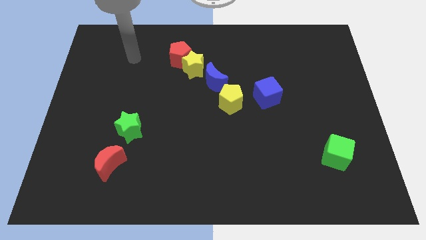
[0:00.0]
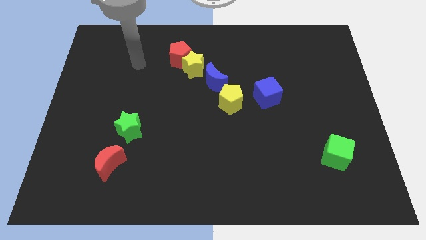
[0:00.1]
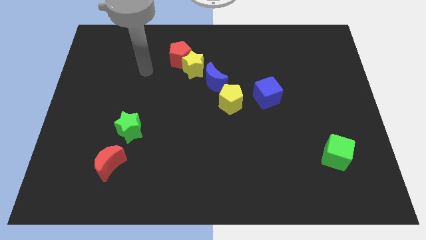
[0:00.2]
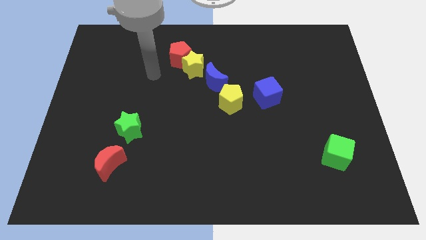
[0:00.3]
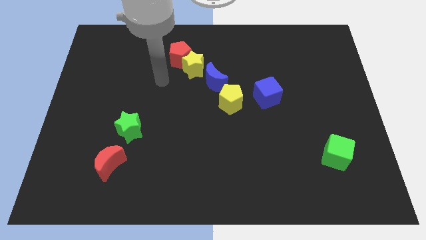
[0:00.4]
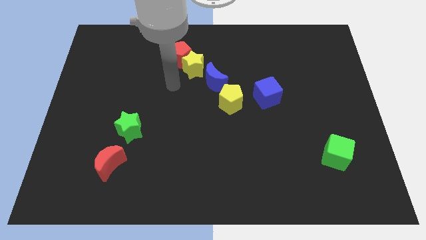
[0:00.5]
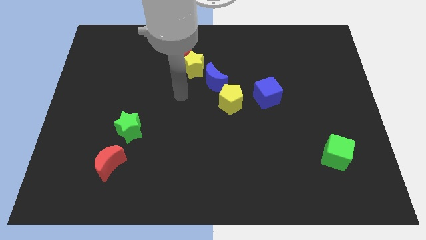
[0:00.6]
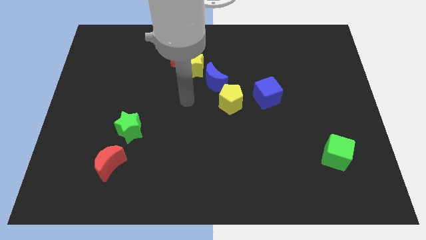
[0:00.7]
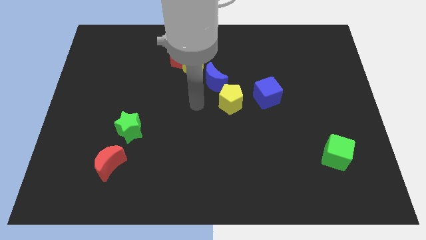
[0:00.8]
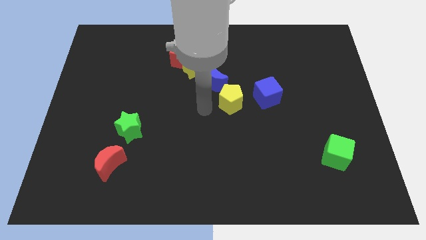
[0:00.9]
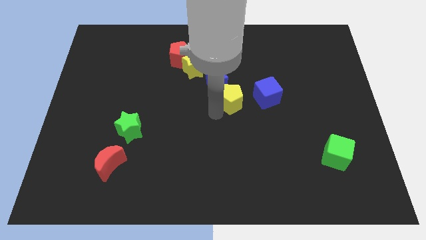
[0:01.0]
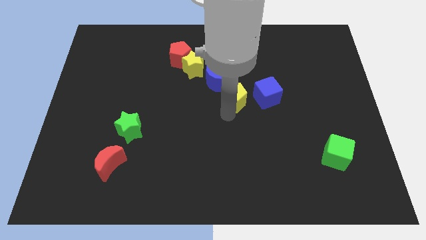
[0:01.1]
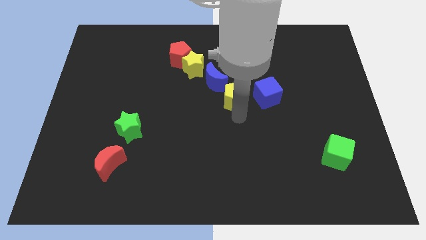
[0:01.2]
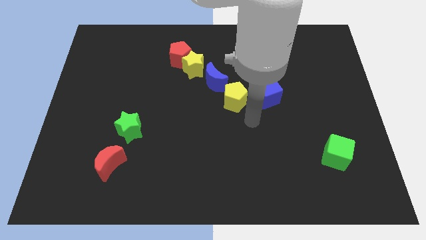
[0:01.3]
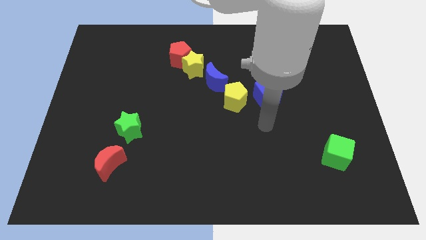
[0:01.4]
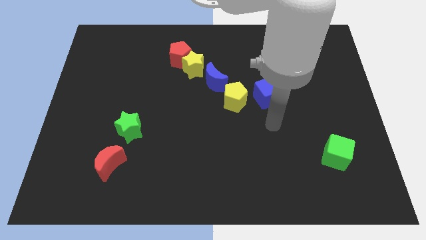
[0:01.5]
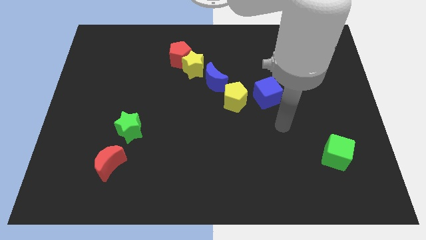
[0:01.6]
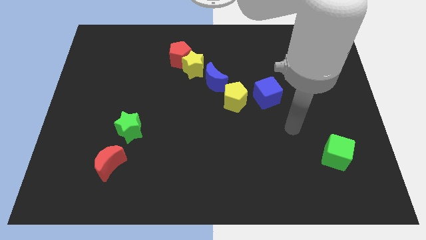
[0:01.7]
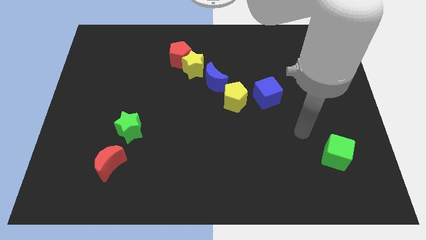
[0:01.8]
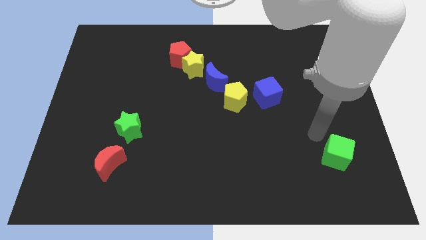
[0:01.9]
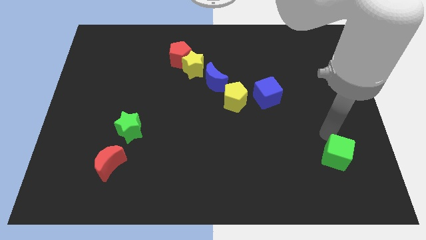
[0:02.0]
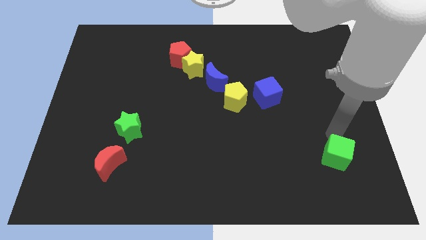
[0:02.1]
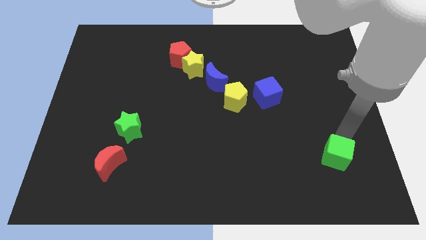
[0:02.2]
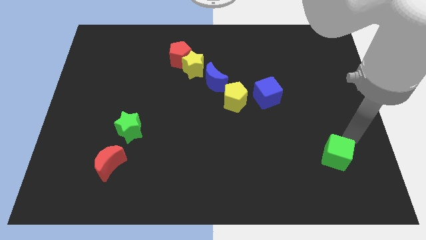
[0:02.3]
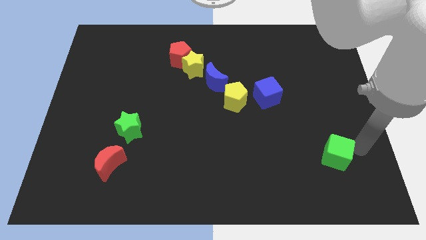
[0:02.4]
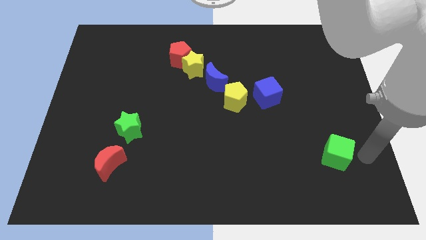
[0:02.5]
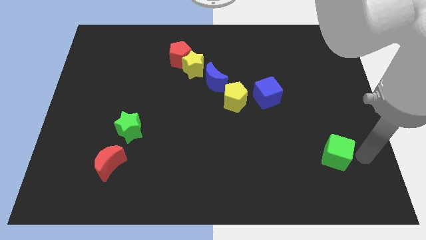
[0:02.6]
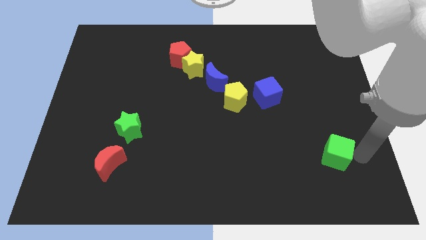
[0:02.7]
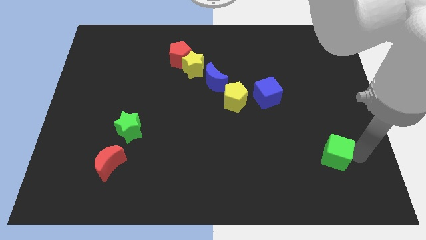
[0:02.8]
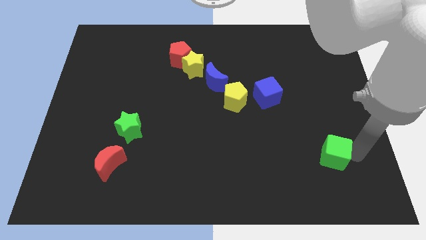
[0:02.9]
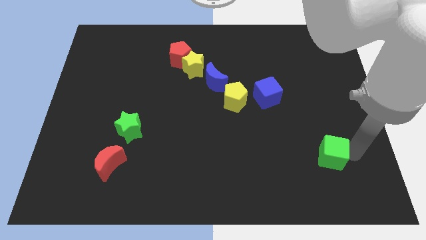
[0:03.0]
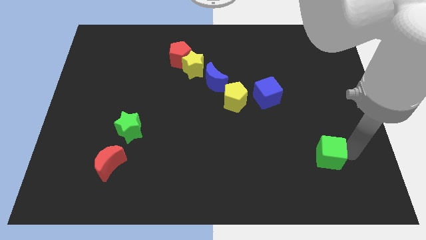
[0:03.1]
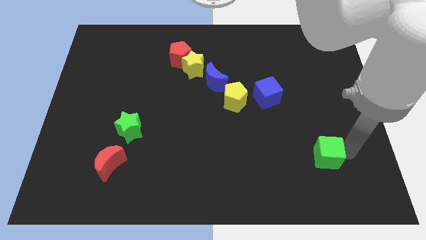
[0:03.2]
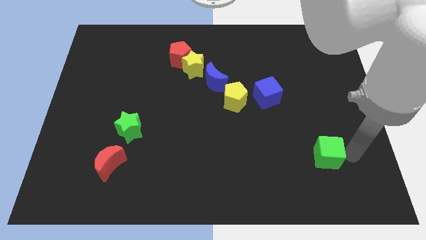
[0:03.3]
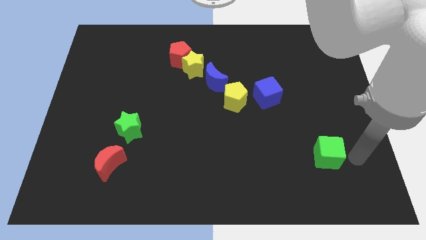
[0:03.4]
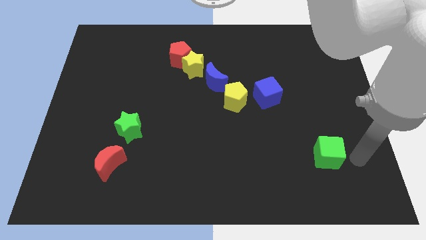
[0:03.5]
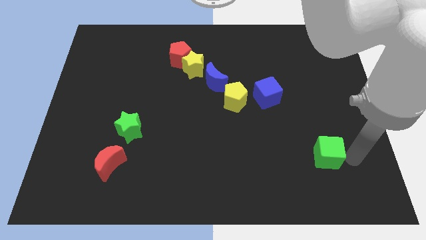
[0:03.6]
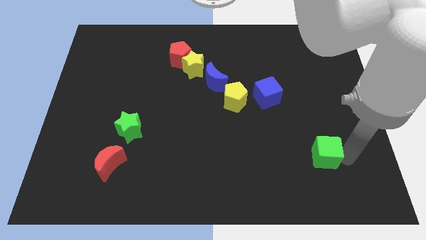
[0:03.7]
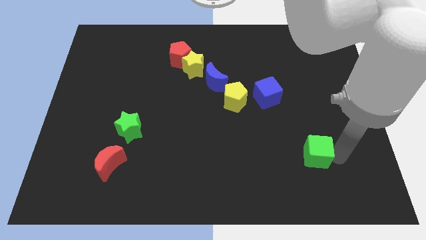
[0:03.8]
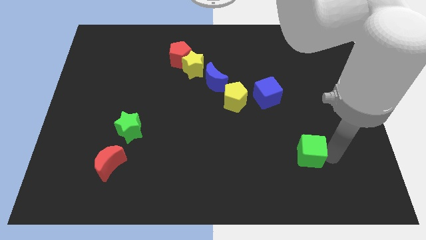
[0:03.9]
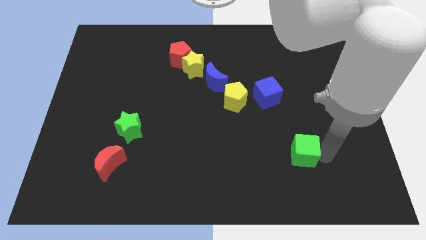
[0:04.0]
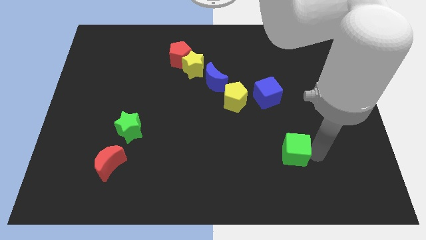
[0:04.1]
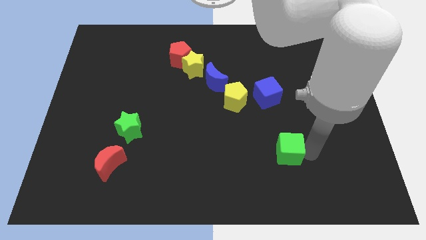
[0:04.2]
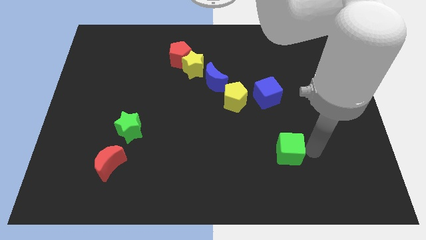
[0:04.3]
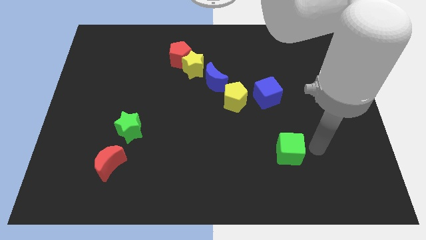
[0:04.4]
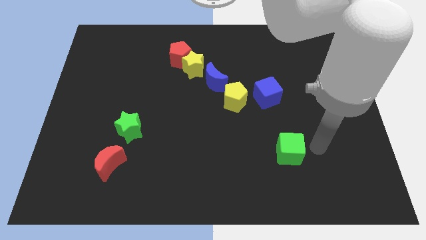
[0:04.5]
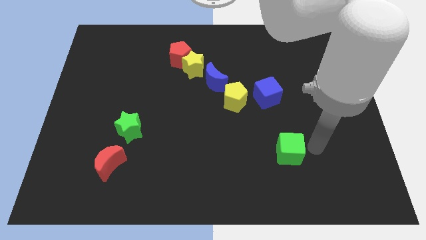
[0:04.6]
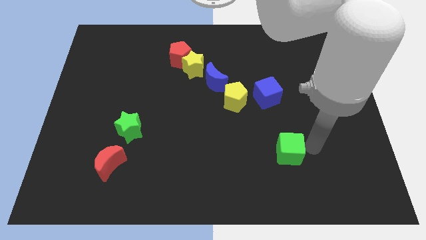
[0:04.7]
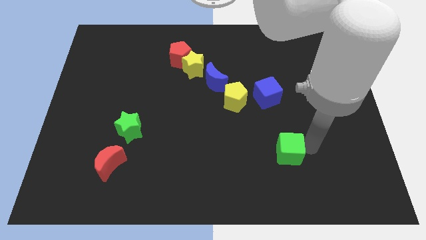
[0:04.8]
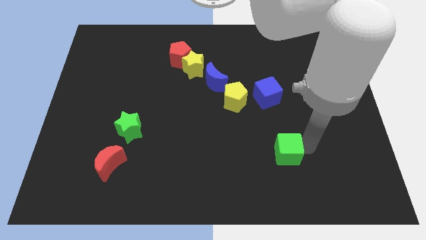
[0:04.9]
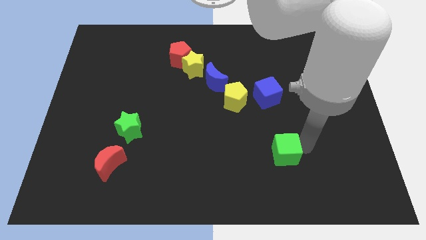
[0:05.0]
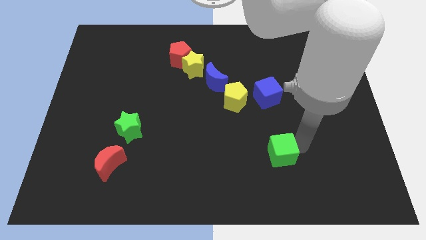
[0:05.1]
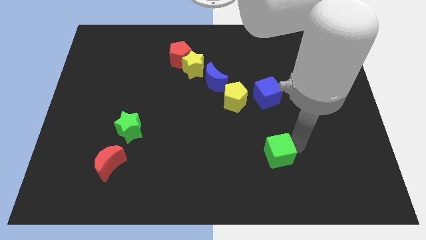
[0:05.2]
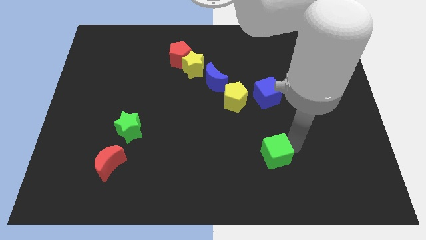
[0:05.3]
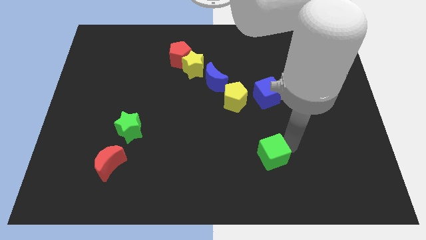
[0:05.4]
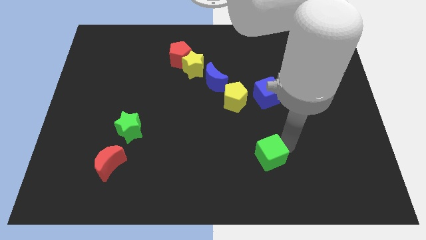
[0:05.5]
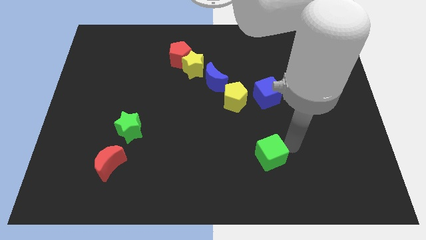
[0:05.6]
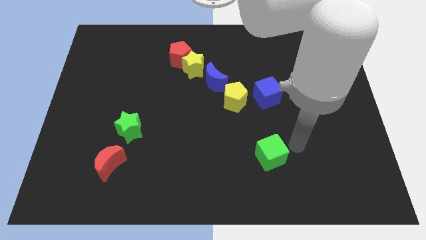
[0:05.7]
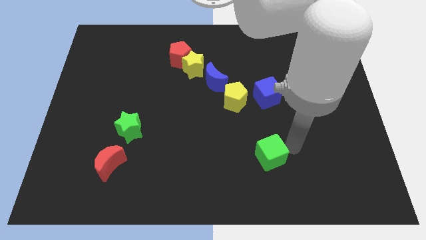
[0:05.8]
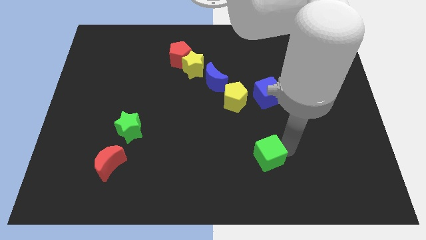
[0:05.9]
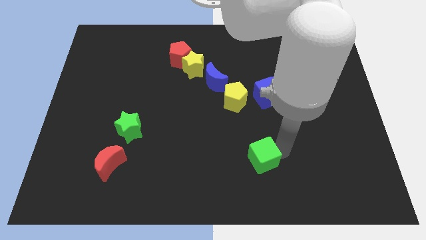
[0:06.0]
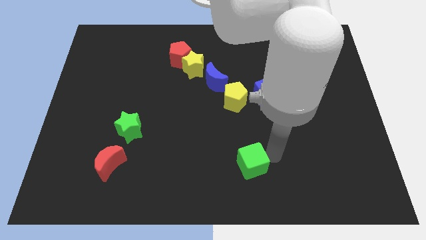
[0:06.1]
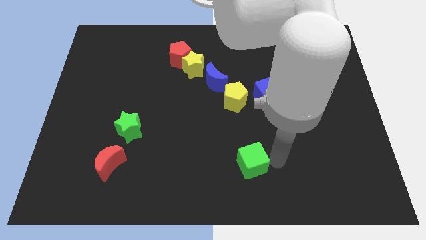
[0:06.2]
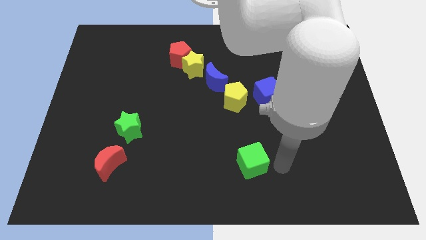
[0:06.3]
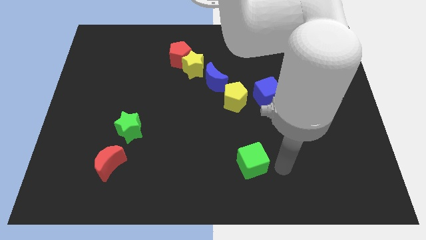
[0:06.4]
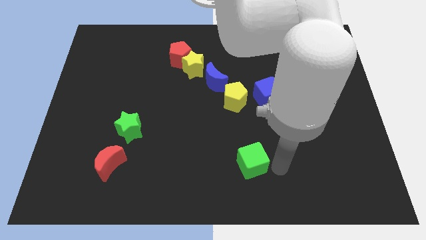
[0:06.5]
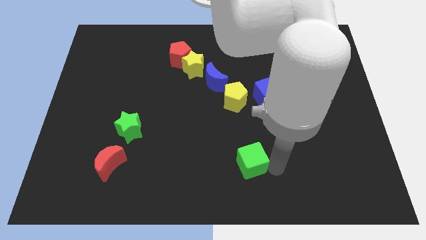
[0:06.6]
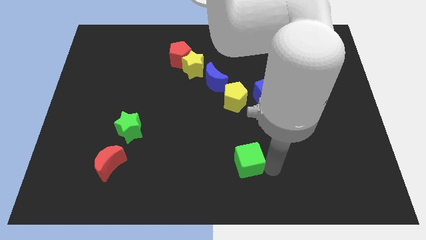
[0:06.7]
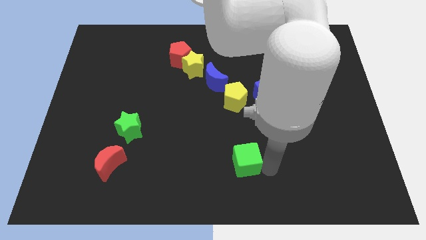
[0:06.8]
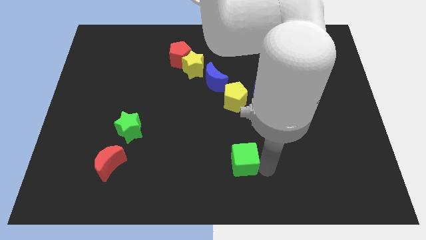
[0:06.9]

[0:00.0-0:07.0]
push the green cube to the left

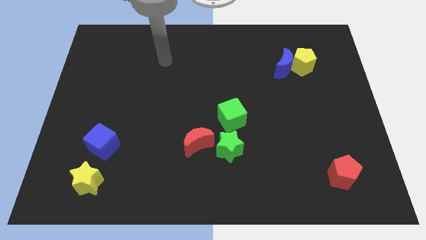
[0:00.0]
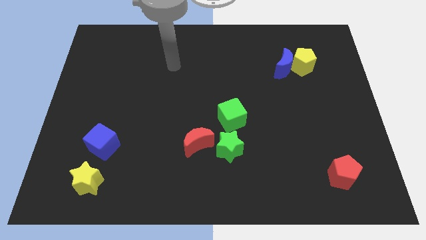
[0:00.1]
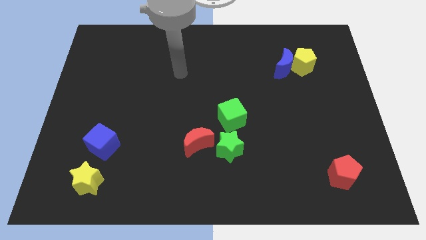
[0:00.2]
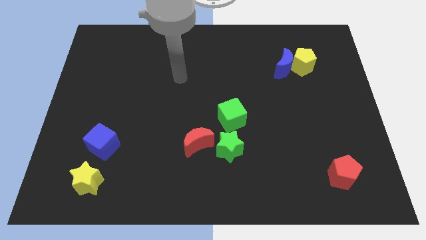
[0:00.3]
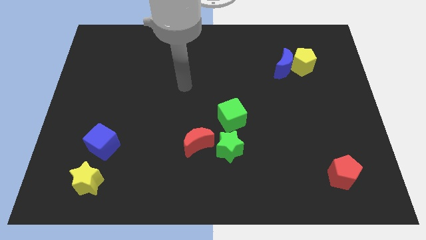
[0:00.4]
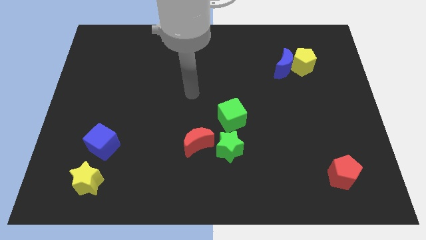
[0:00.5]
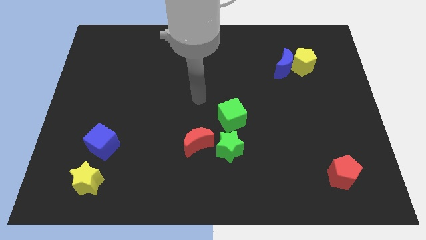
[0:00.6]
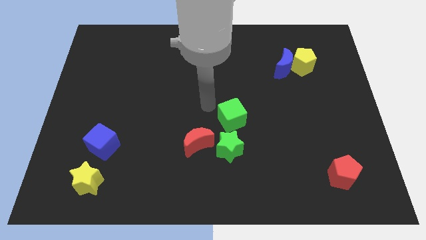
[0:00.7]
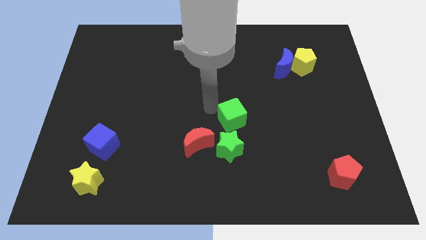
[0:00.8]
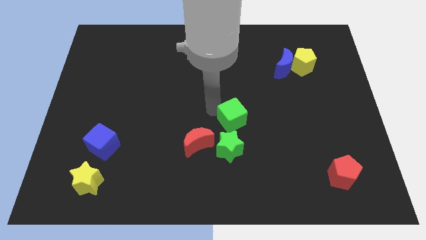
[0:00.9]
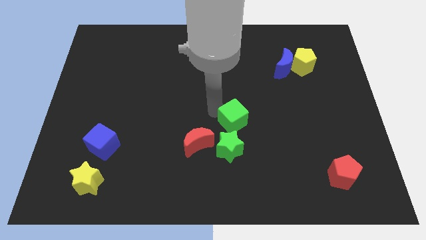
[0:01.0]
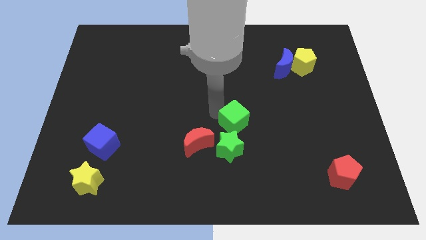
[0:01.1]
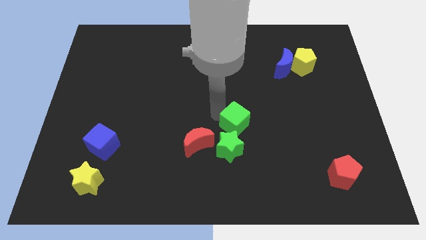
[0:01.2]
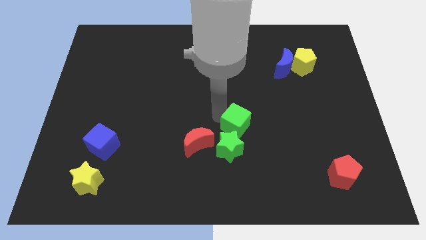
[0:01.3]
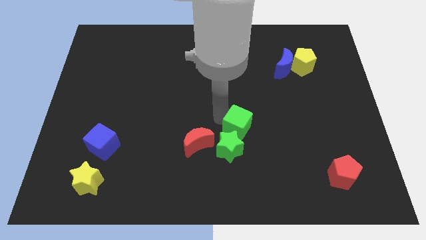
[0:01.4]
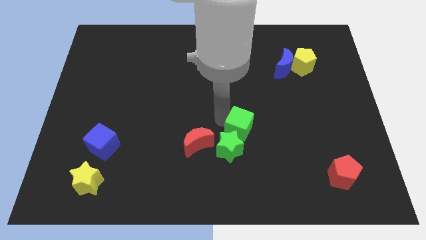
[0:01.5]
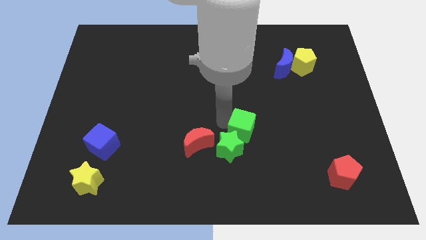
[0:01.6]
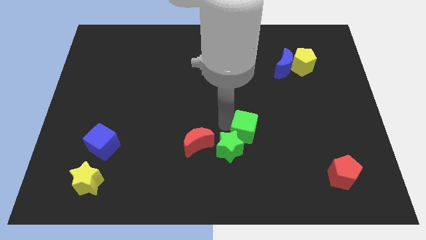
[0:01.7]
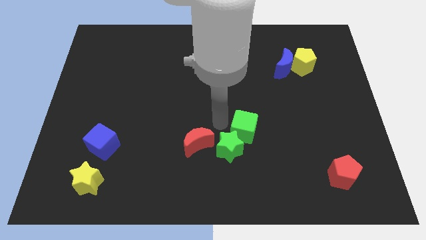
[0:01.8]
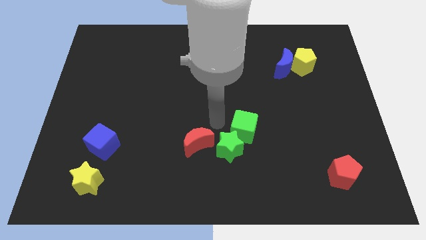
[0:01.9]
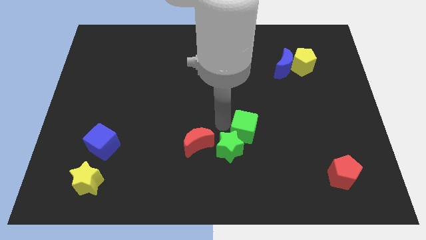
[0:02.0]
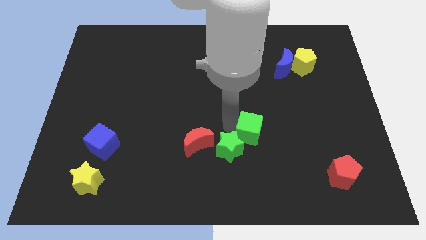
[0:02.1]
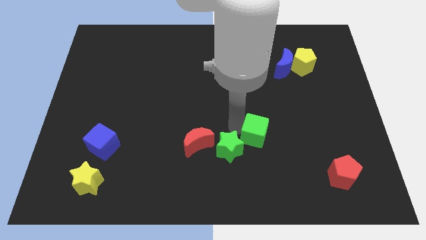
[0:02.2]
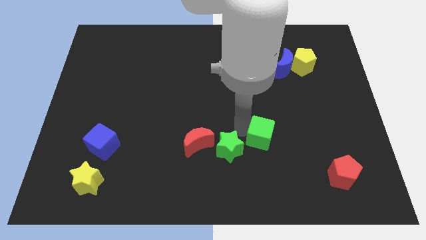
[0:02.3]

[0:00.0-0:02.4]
slightly move the green cube downwards and right
